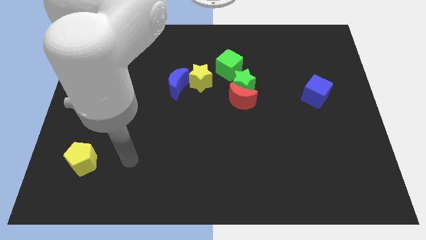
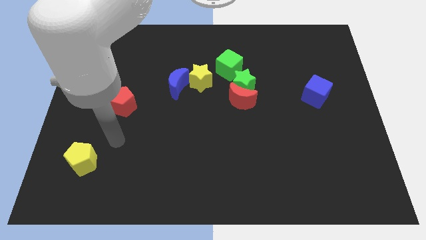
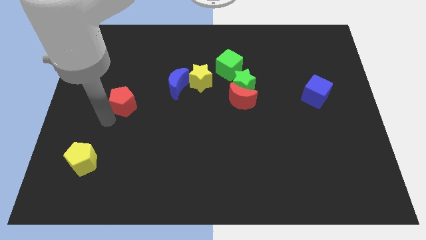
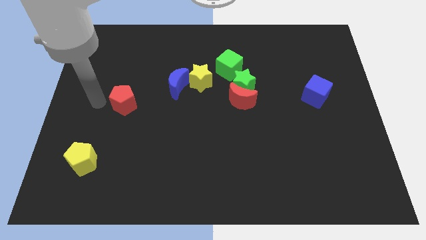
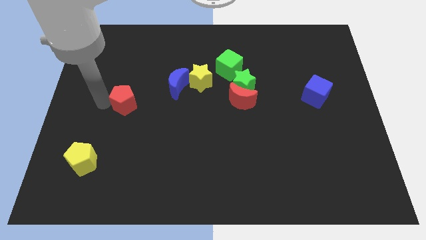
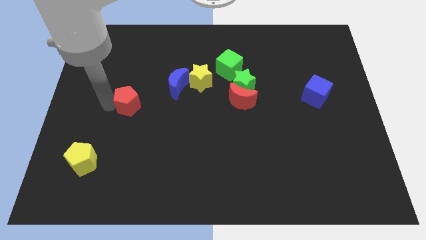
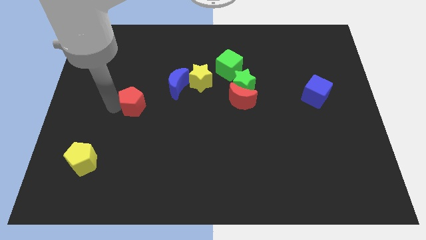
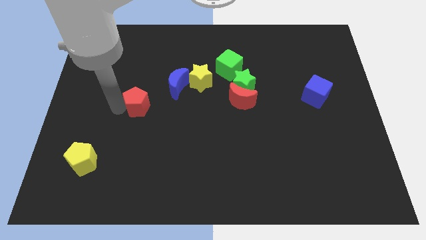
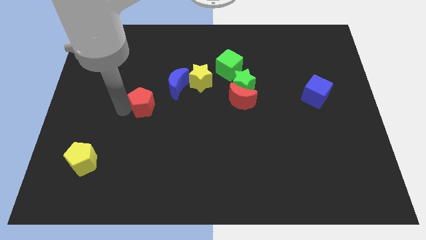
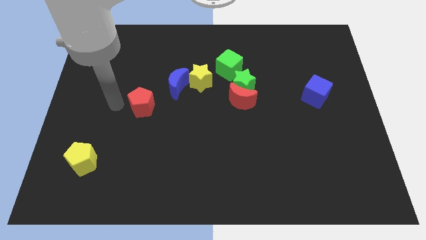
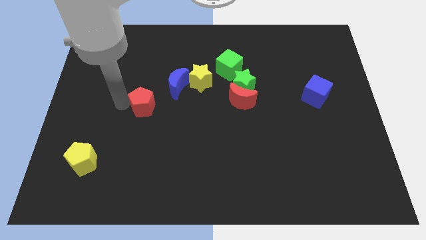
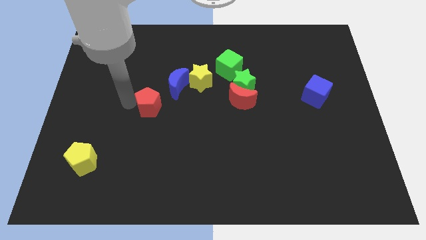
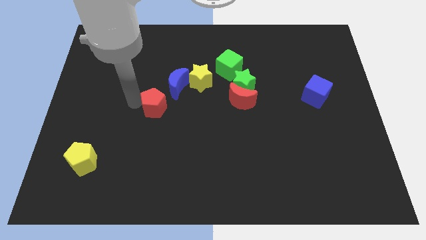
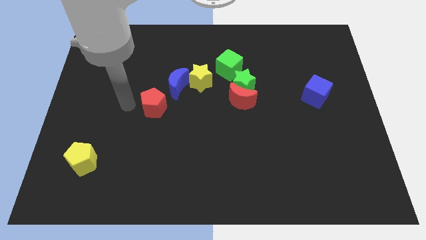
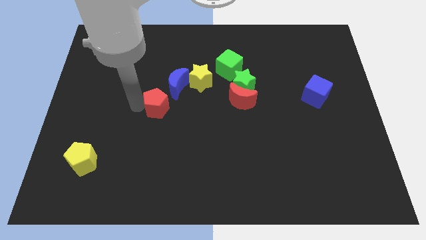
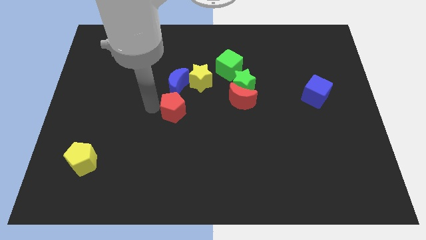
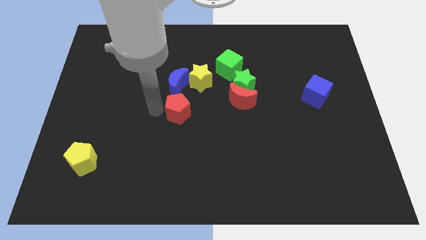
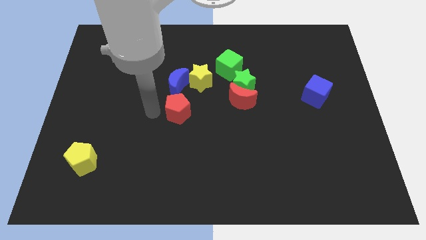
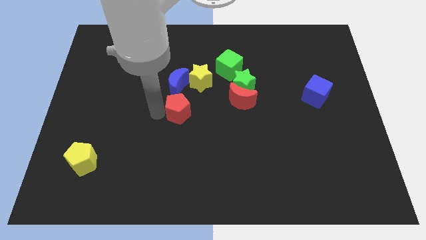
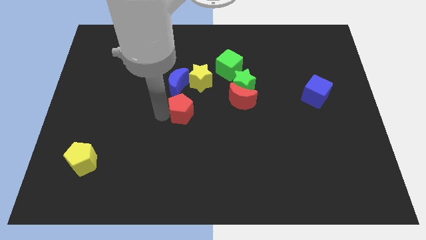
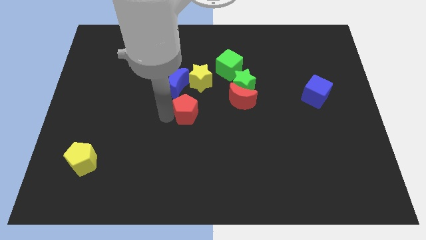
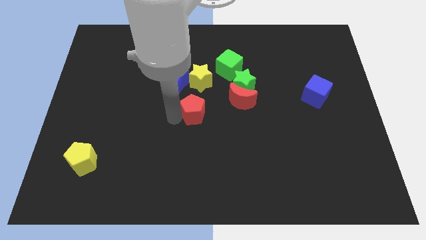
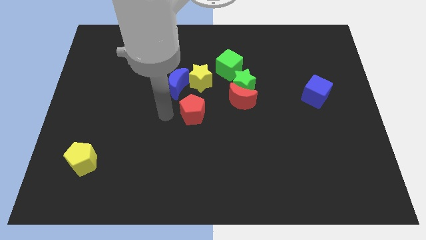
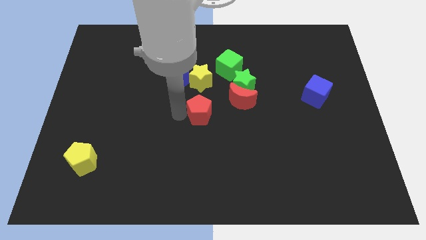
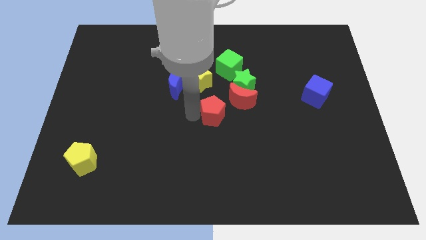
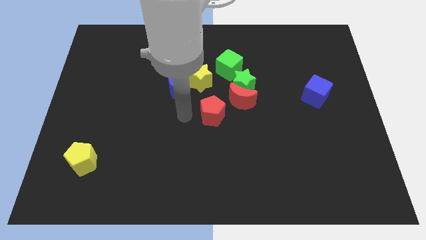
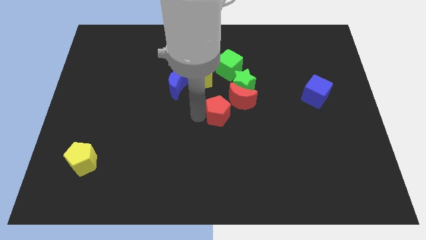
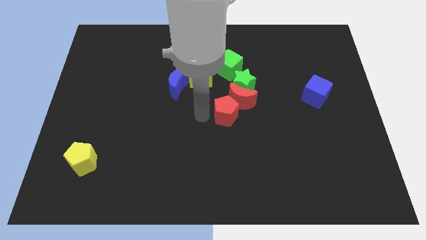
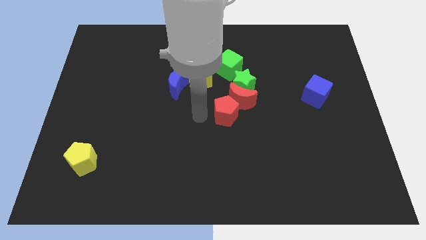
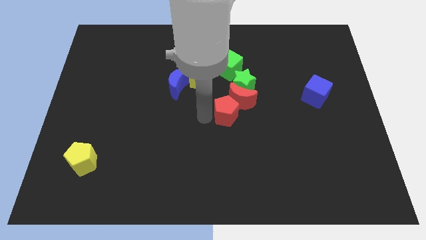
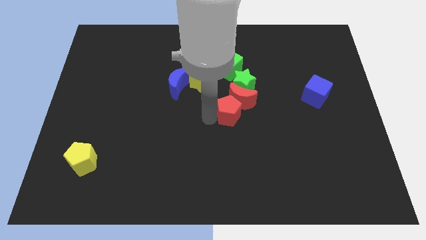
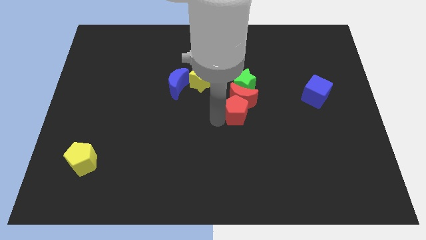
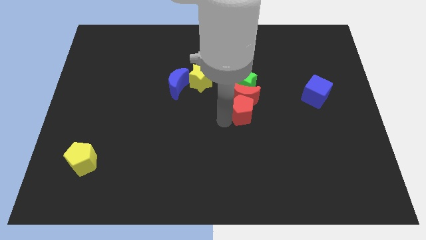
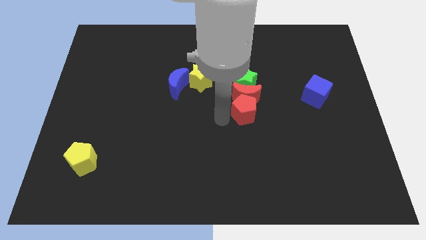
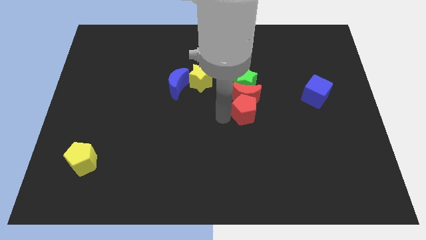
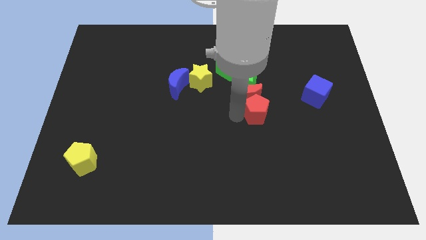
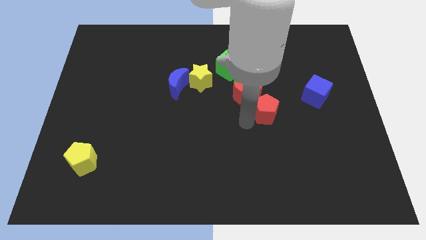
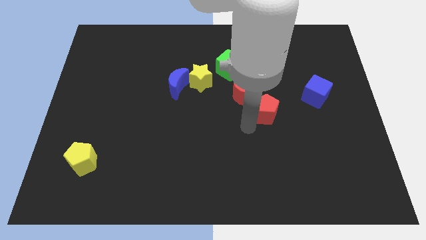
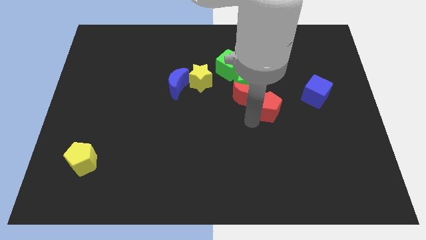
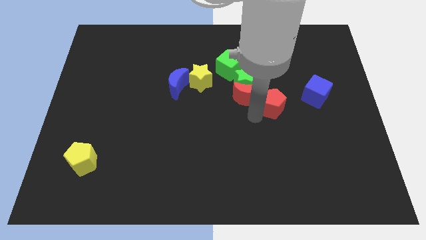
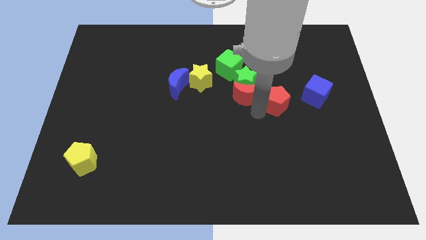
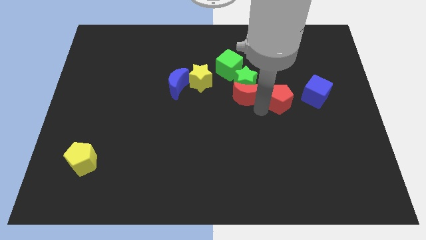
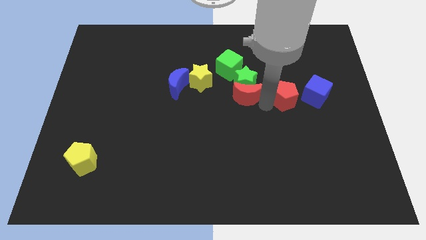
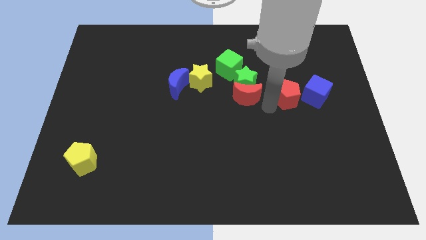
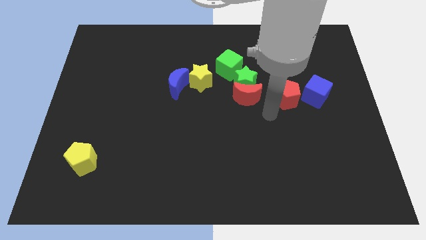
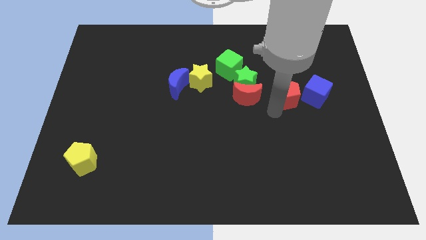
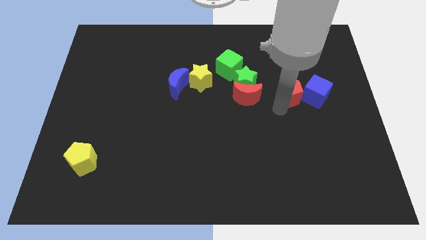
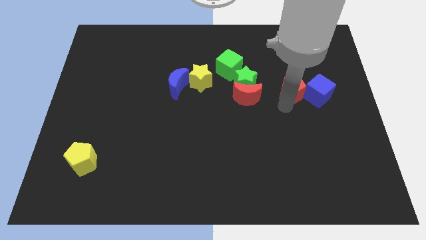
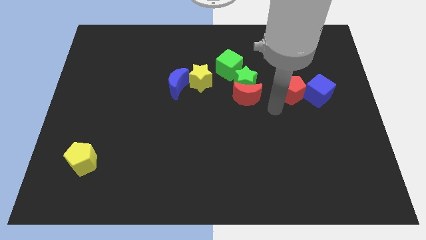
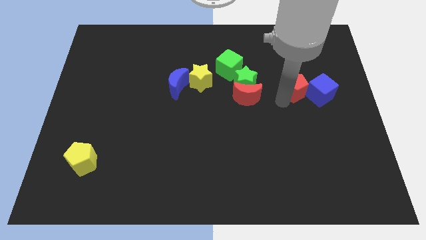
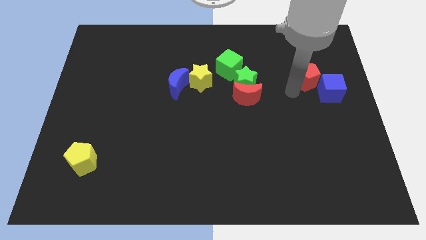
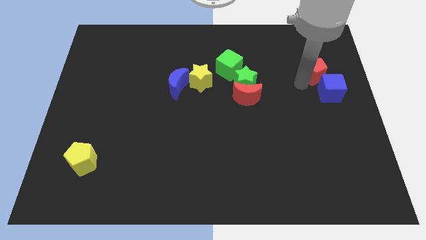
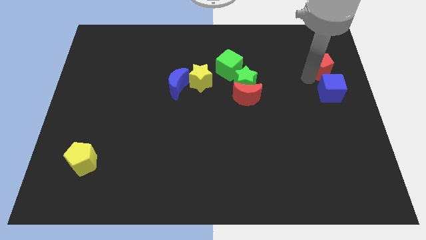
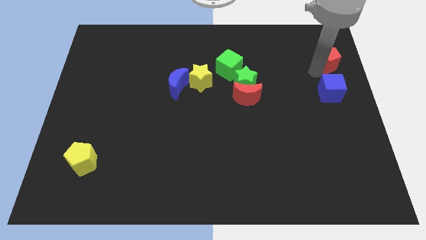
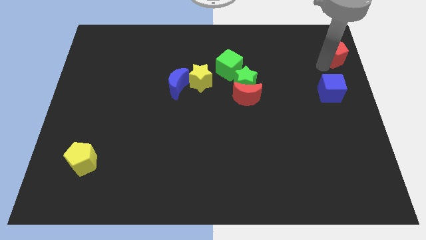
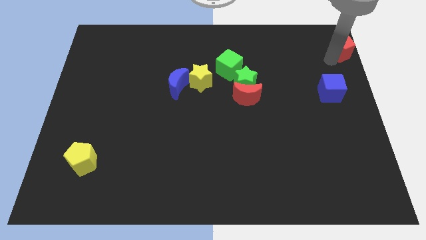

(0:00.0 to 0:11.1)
move the red pentagon to the top right corner

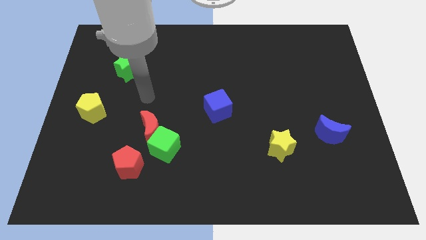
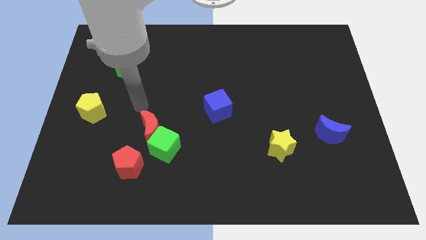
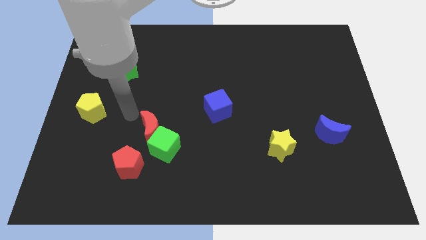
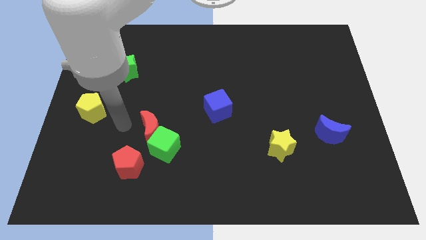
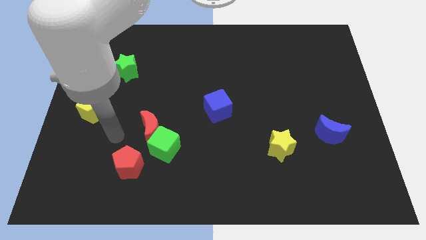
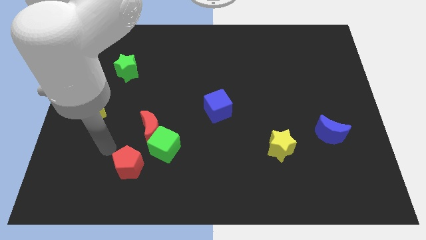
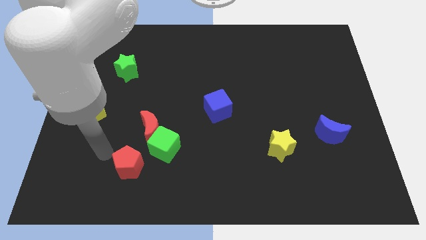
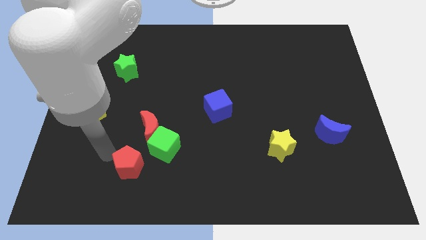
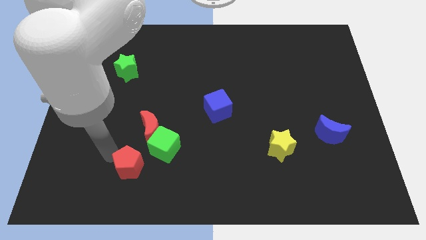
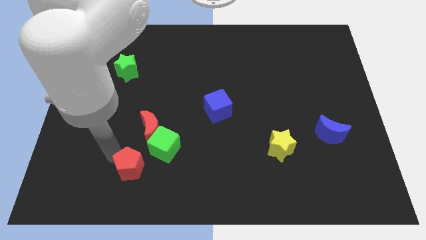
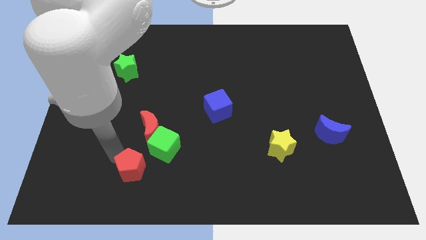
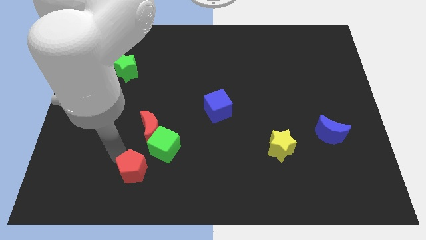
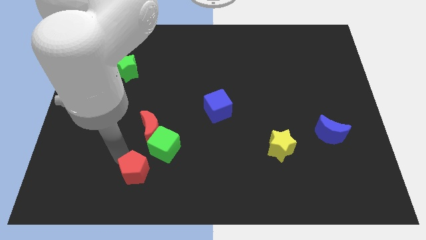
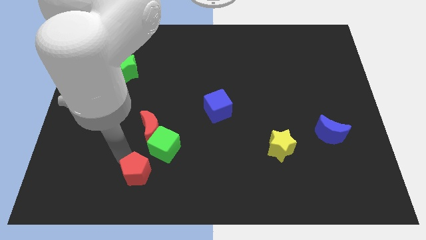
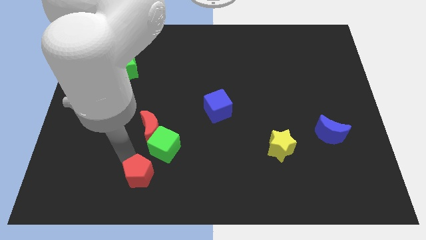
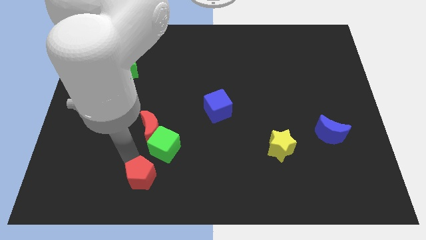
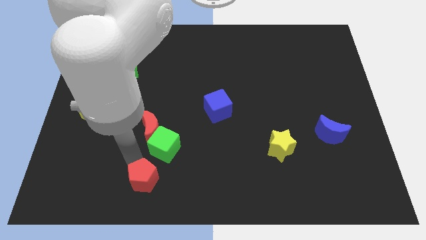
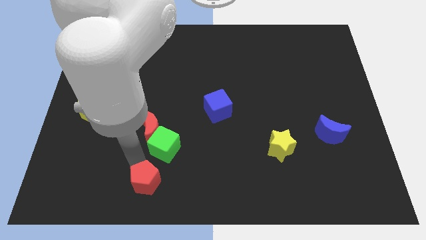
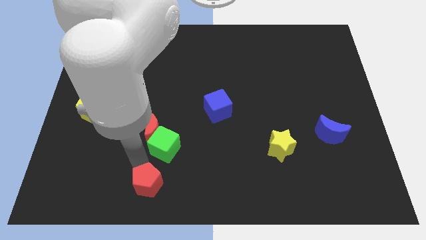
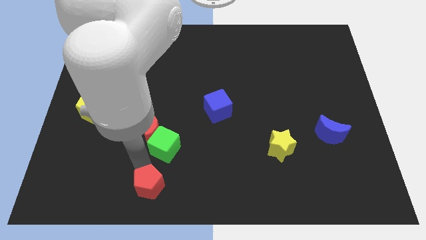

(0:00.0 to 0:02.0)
move the red pentagon to the bottom
